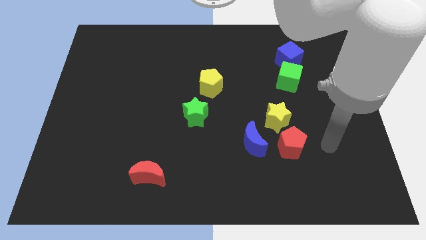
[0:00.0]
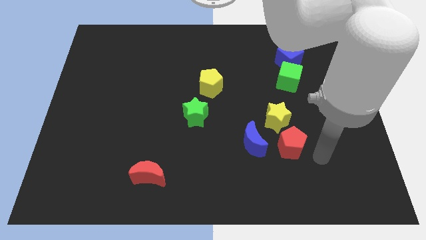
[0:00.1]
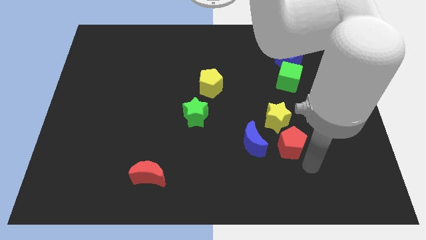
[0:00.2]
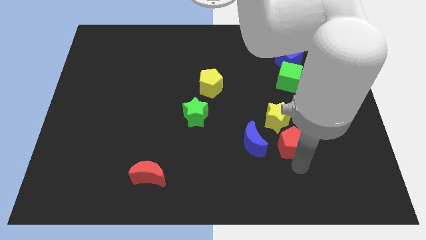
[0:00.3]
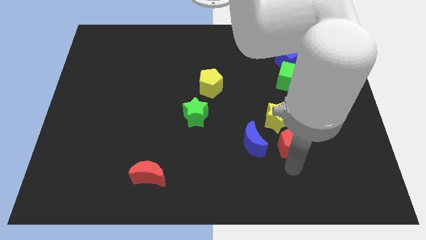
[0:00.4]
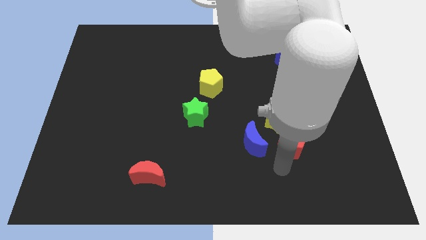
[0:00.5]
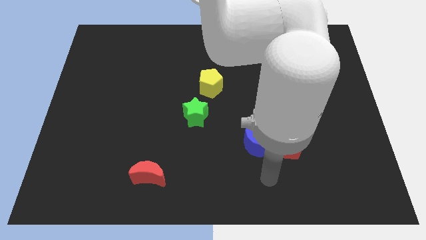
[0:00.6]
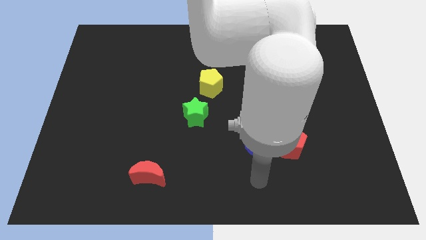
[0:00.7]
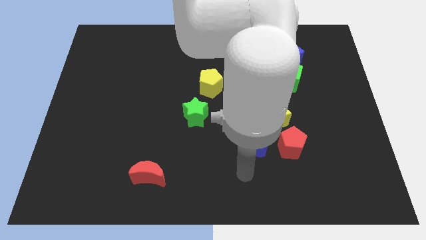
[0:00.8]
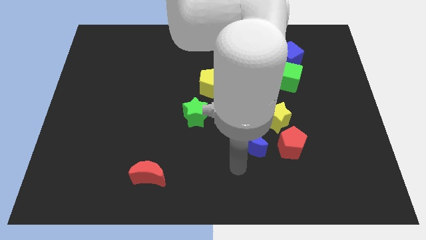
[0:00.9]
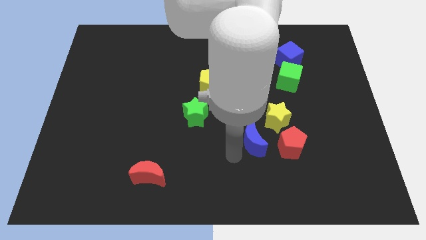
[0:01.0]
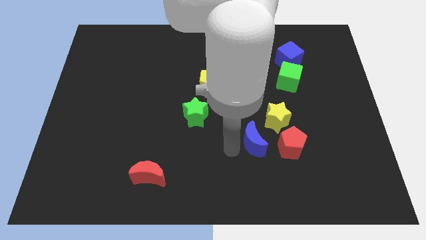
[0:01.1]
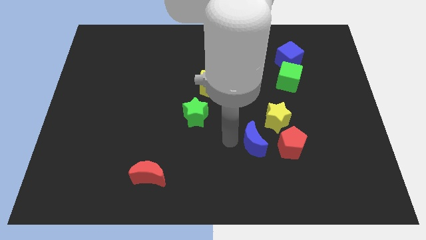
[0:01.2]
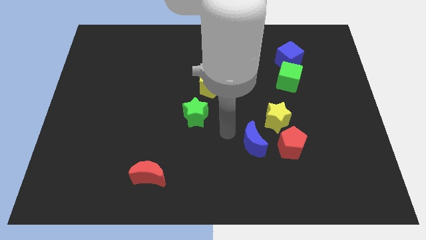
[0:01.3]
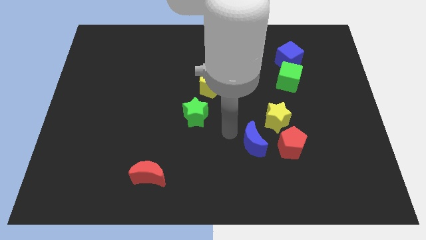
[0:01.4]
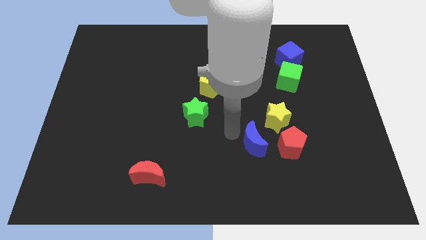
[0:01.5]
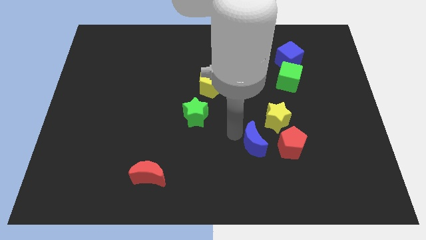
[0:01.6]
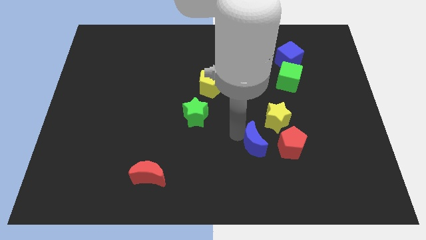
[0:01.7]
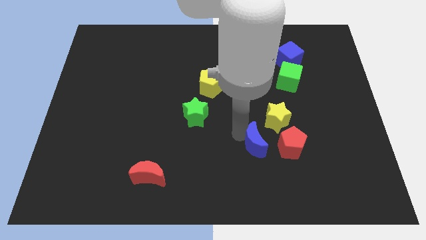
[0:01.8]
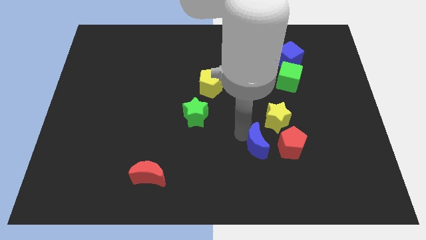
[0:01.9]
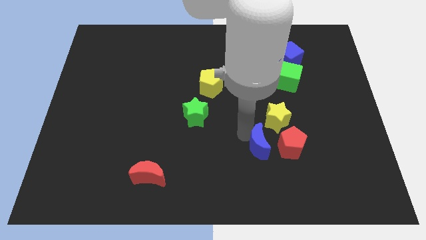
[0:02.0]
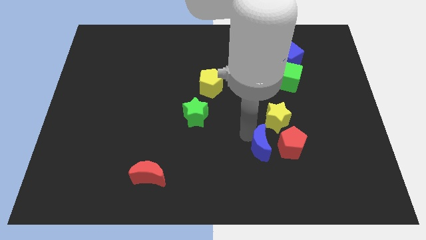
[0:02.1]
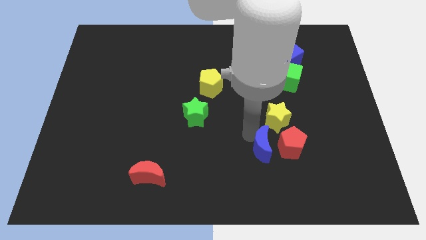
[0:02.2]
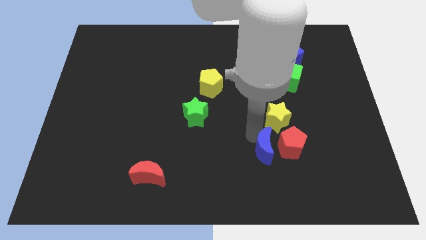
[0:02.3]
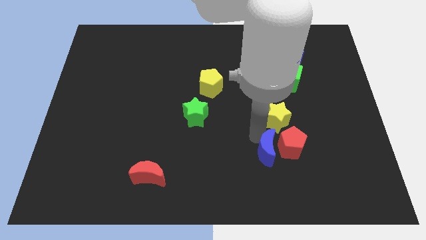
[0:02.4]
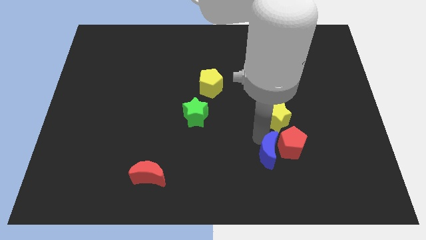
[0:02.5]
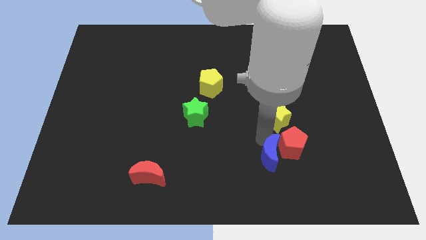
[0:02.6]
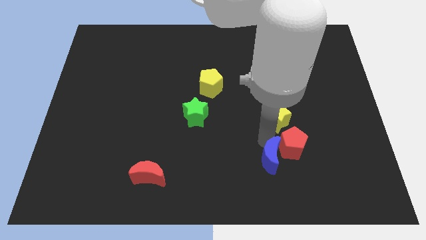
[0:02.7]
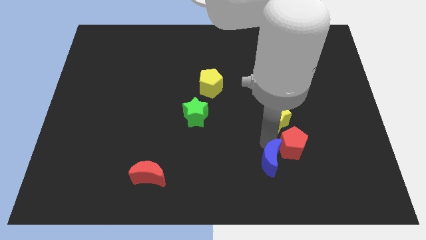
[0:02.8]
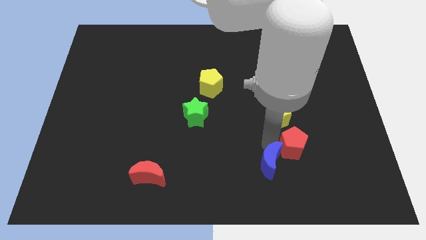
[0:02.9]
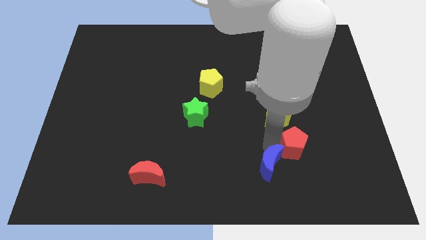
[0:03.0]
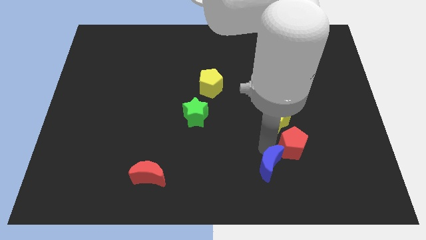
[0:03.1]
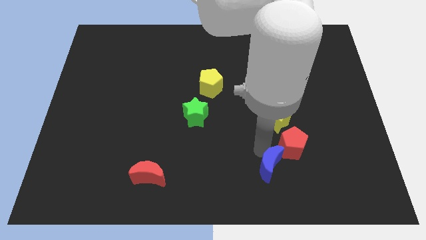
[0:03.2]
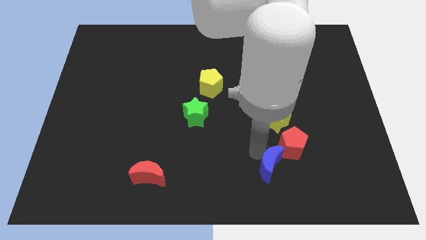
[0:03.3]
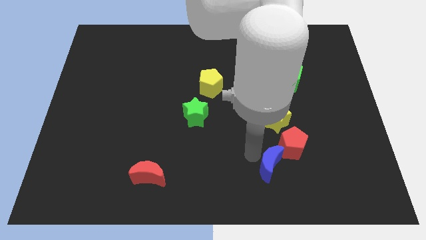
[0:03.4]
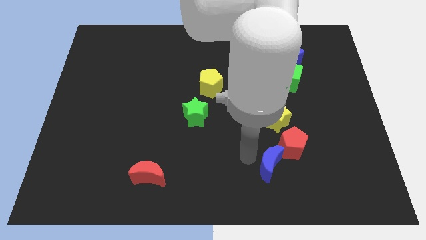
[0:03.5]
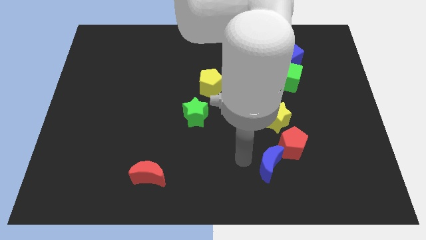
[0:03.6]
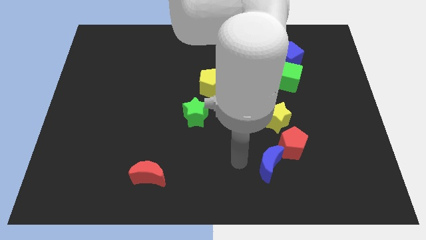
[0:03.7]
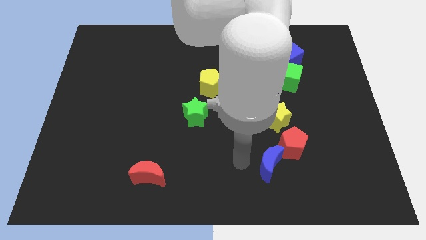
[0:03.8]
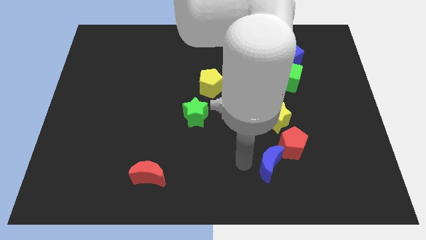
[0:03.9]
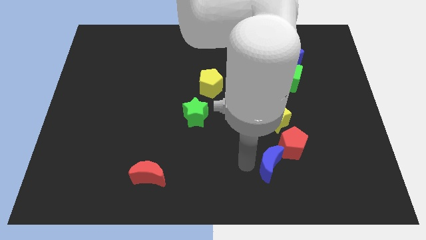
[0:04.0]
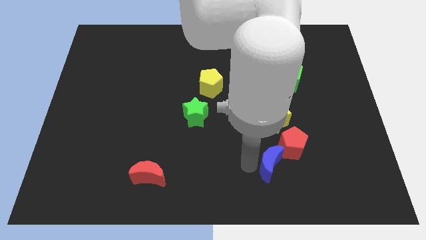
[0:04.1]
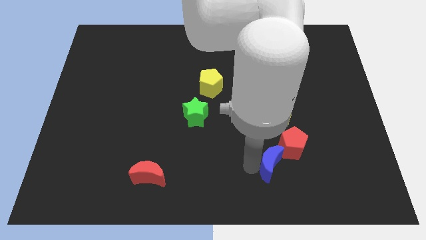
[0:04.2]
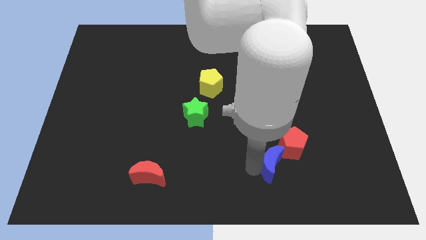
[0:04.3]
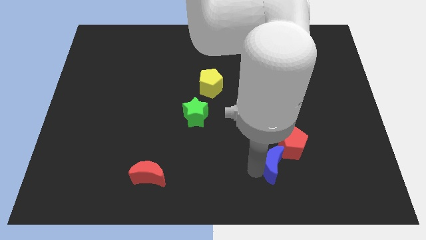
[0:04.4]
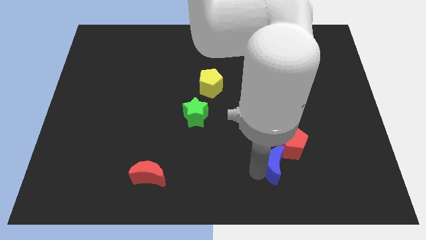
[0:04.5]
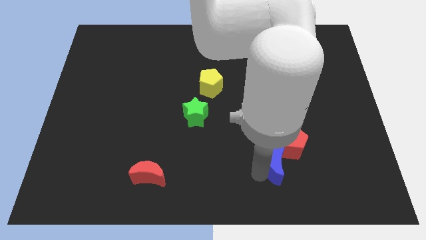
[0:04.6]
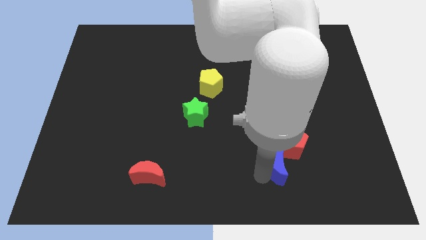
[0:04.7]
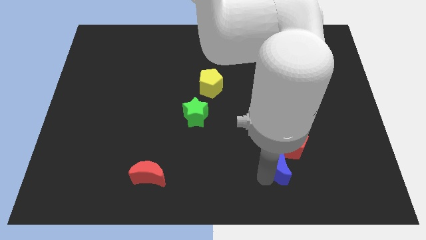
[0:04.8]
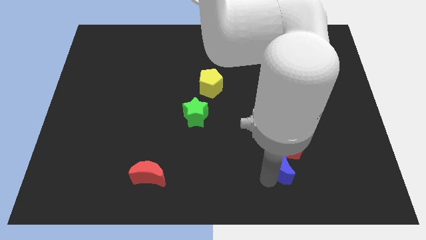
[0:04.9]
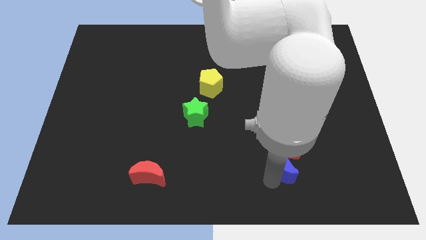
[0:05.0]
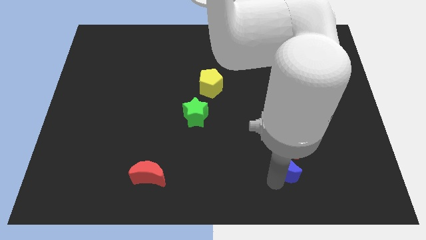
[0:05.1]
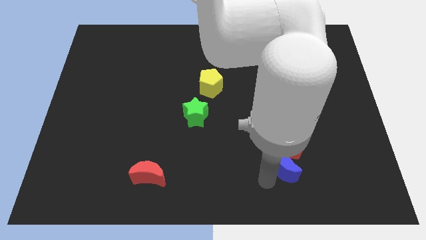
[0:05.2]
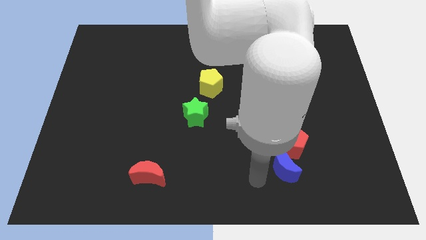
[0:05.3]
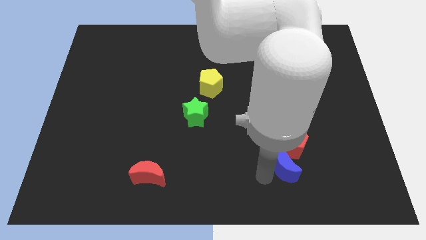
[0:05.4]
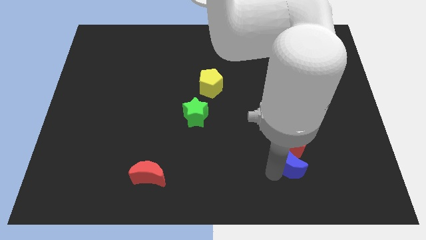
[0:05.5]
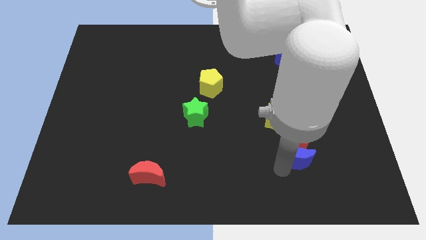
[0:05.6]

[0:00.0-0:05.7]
slightly slide the blue moon right

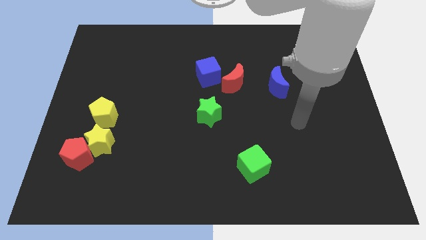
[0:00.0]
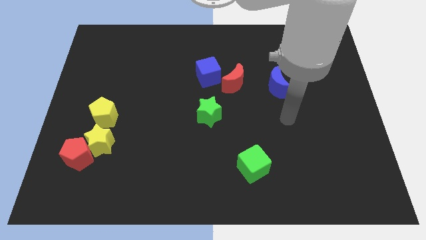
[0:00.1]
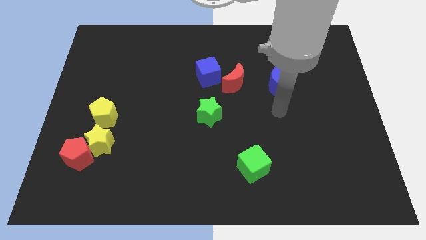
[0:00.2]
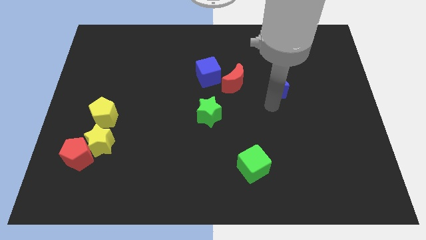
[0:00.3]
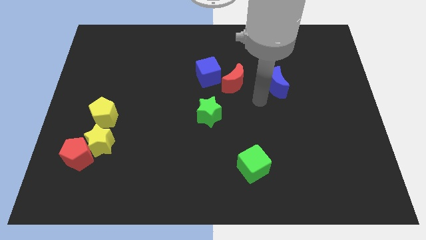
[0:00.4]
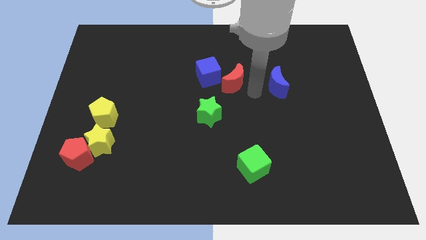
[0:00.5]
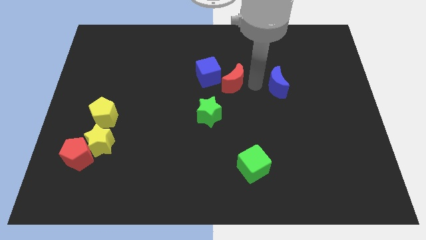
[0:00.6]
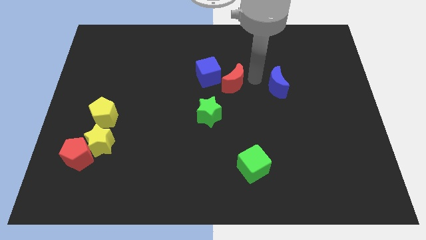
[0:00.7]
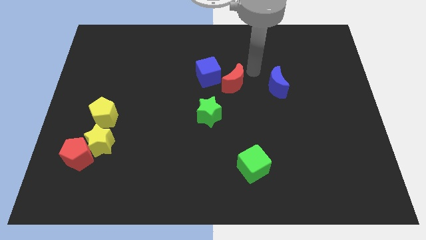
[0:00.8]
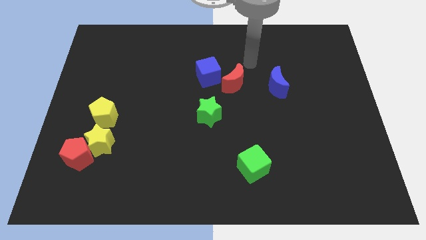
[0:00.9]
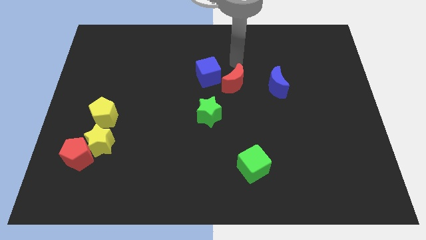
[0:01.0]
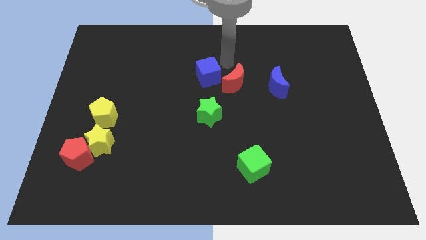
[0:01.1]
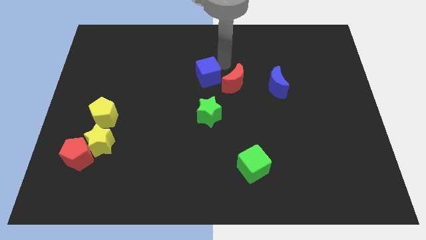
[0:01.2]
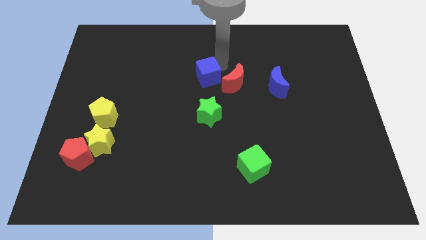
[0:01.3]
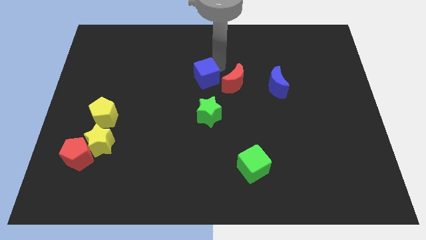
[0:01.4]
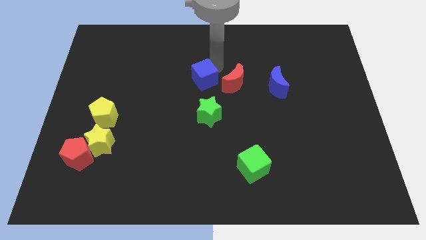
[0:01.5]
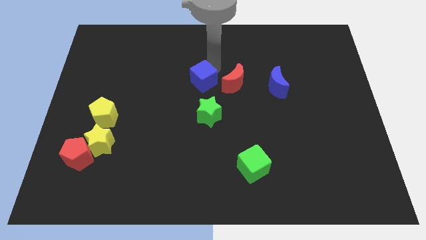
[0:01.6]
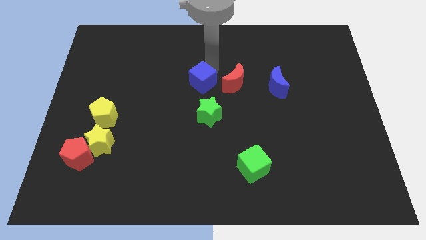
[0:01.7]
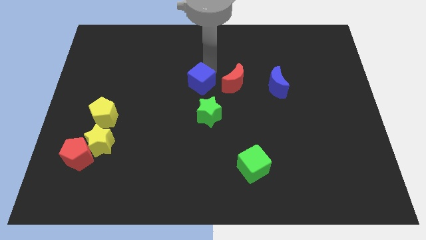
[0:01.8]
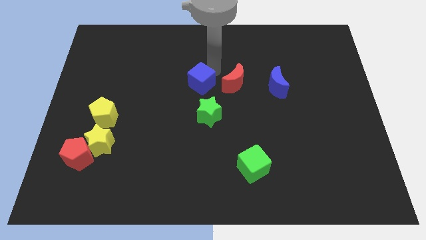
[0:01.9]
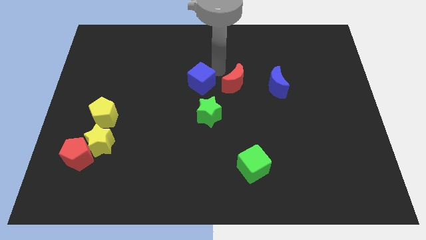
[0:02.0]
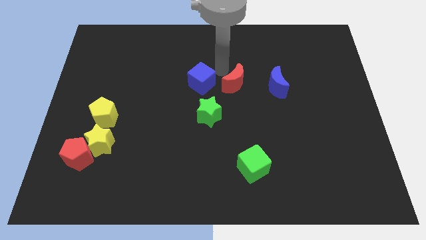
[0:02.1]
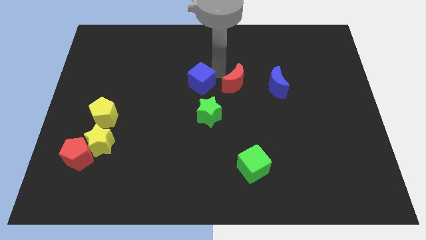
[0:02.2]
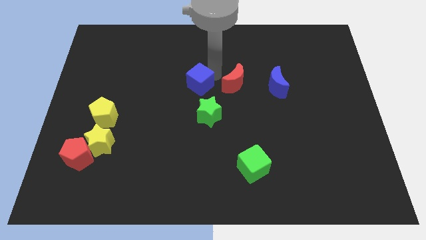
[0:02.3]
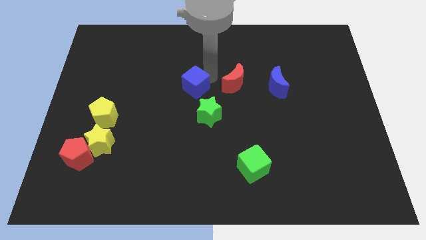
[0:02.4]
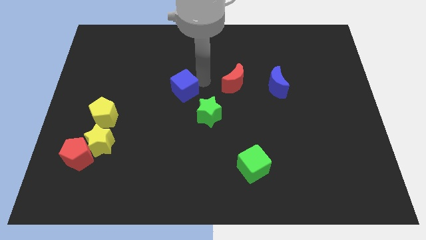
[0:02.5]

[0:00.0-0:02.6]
push the blue cube down and to the left a little
